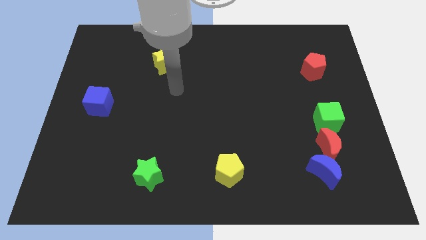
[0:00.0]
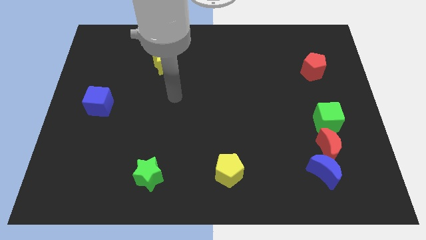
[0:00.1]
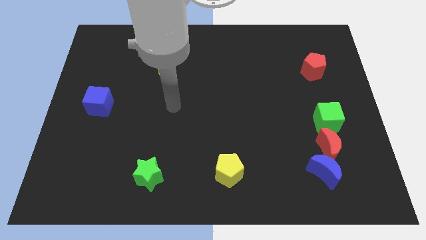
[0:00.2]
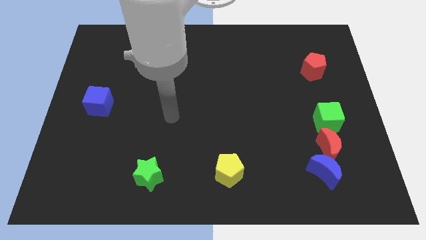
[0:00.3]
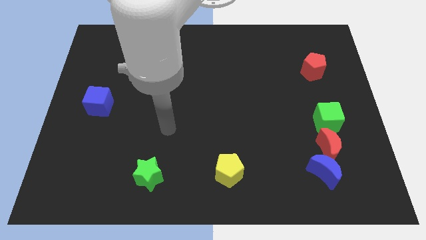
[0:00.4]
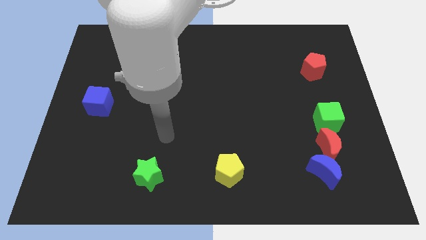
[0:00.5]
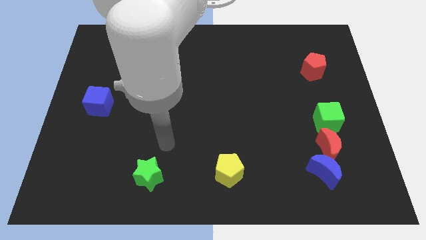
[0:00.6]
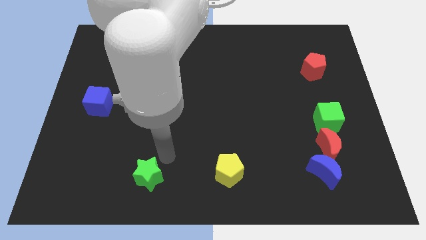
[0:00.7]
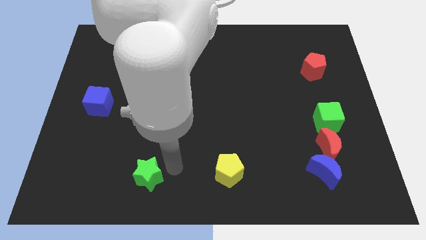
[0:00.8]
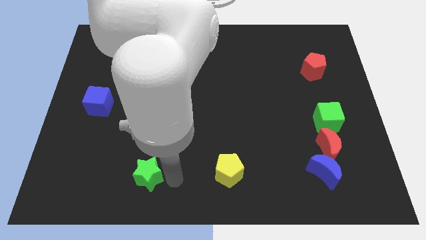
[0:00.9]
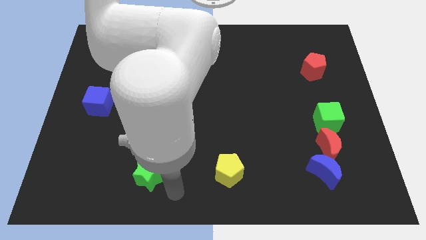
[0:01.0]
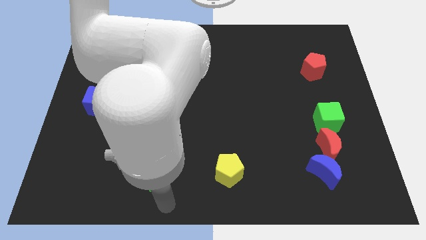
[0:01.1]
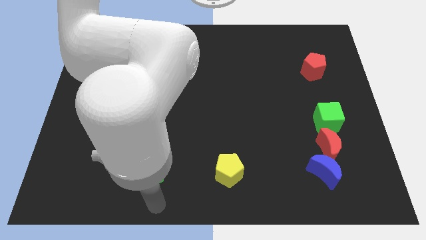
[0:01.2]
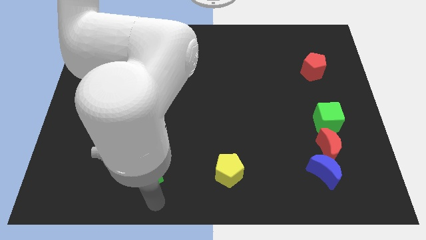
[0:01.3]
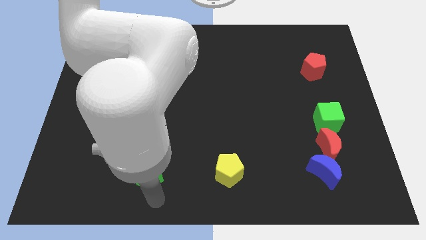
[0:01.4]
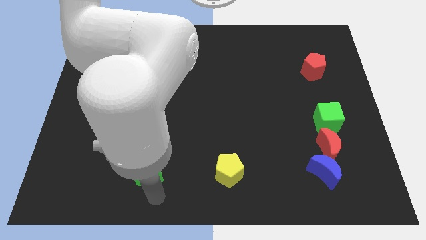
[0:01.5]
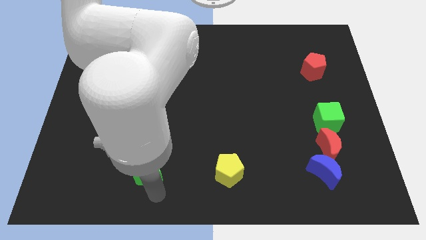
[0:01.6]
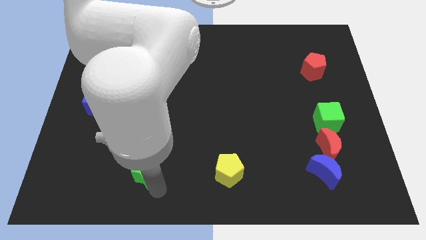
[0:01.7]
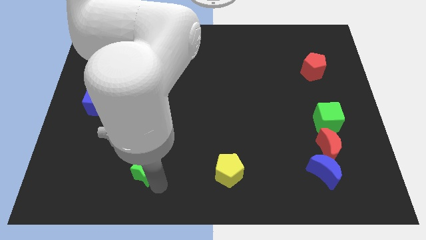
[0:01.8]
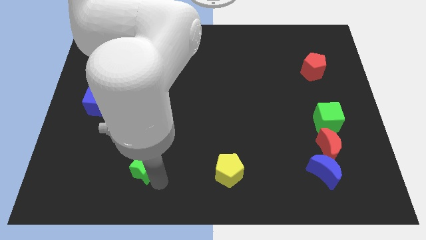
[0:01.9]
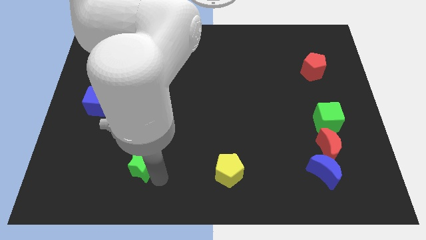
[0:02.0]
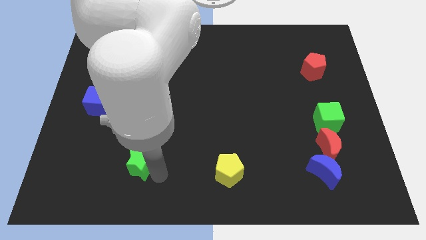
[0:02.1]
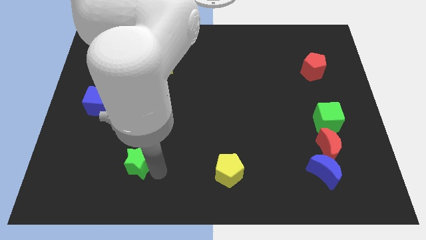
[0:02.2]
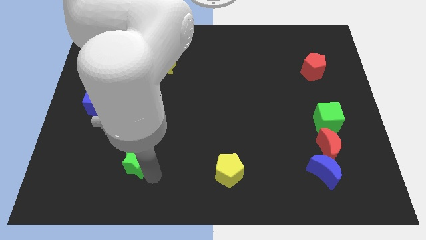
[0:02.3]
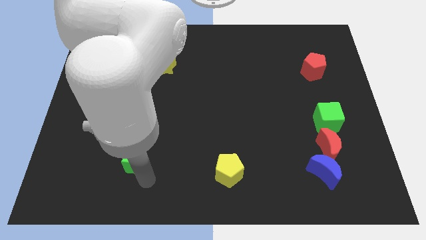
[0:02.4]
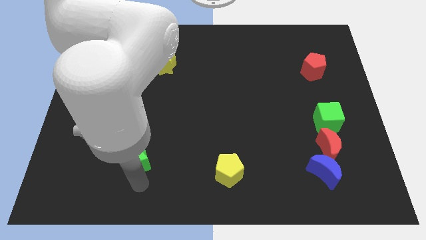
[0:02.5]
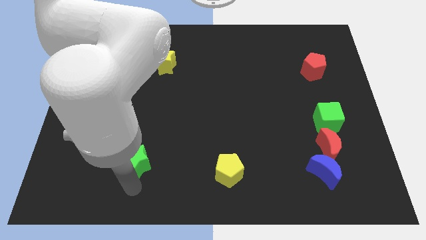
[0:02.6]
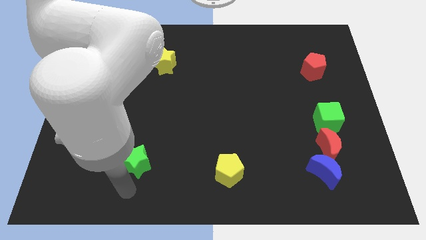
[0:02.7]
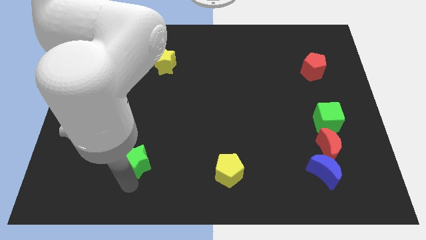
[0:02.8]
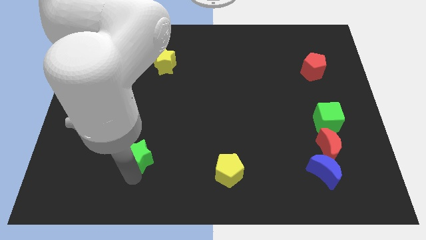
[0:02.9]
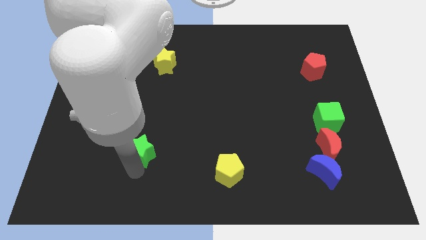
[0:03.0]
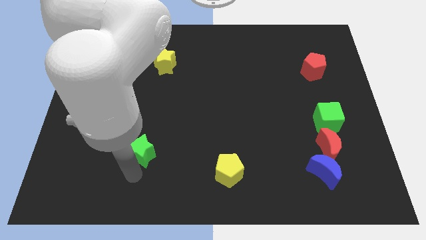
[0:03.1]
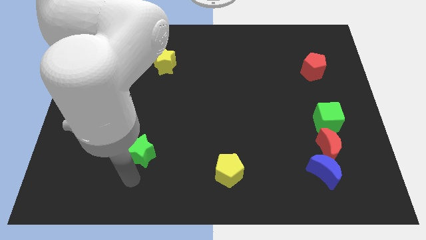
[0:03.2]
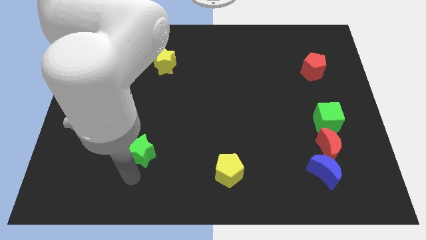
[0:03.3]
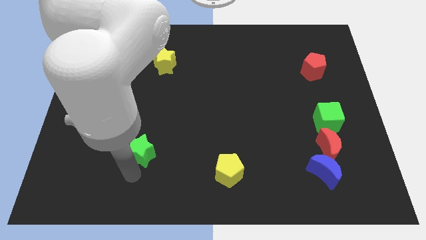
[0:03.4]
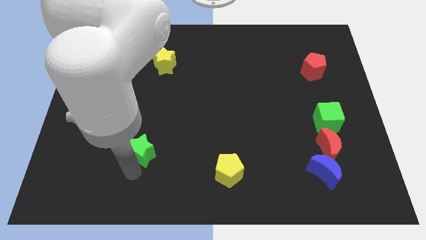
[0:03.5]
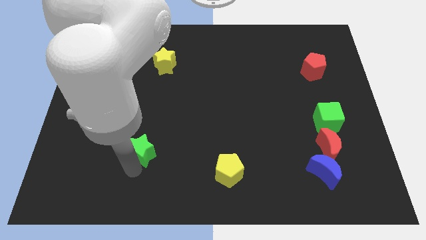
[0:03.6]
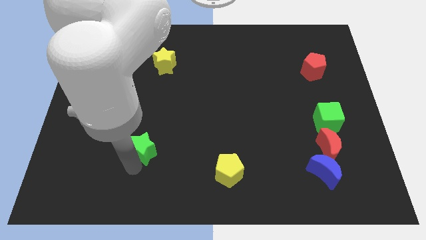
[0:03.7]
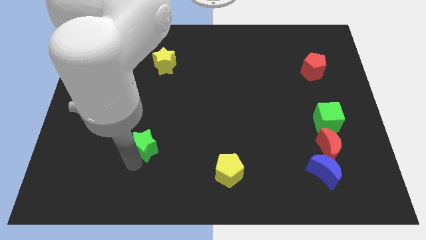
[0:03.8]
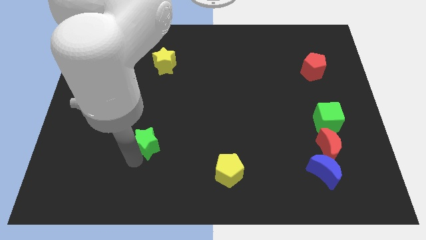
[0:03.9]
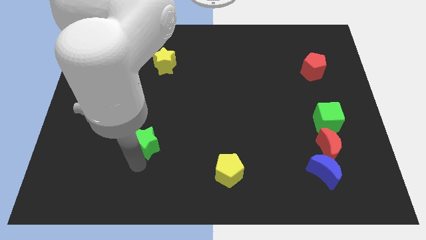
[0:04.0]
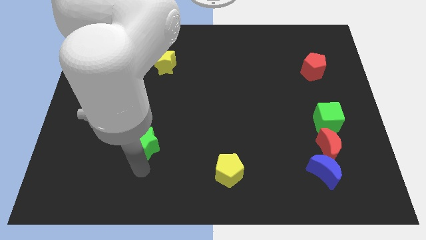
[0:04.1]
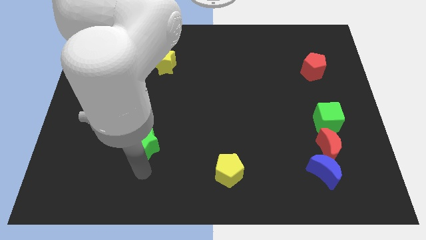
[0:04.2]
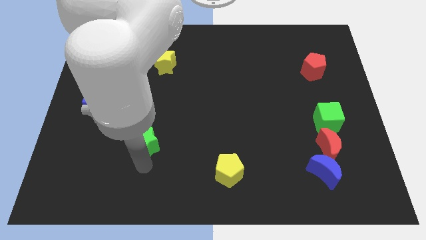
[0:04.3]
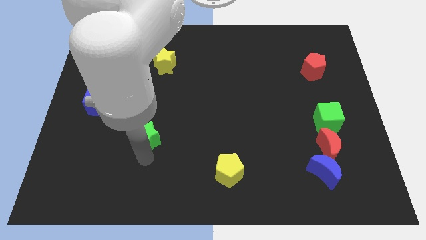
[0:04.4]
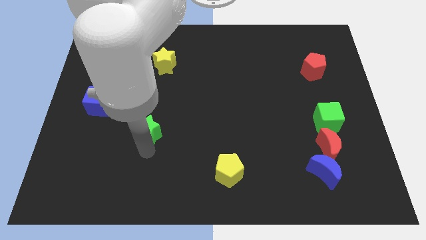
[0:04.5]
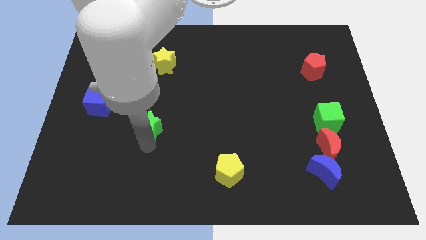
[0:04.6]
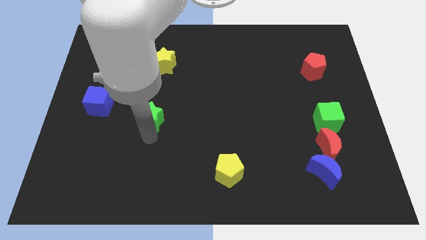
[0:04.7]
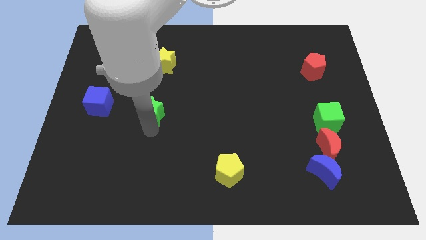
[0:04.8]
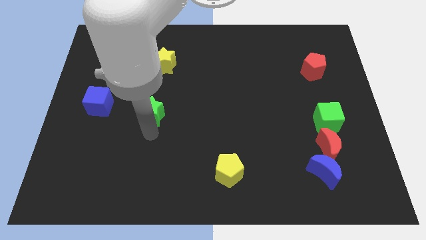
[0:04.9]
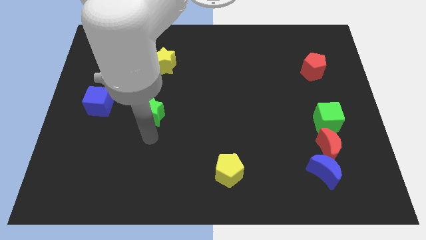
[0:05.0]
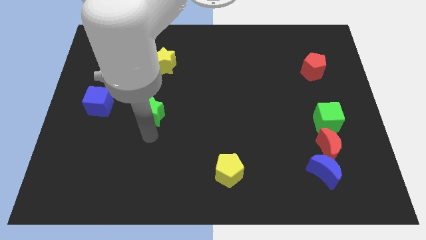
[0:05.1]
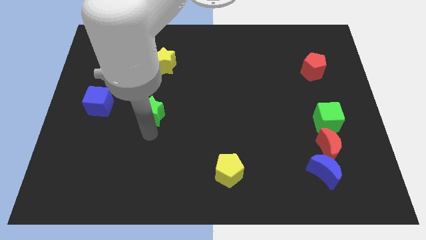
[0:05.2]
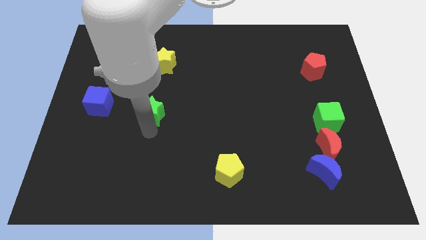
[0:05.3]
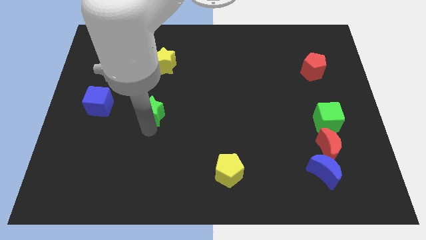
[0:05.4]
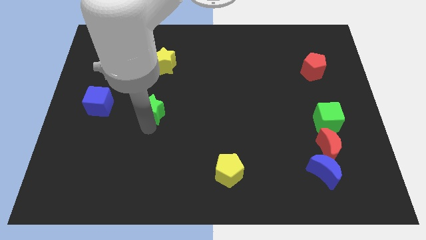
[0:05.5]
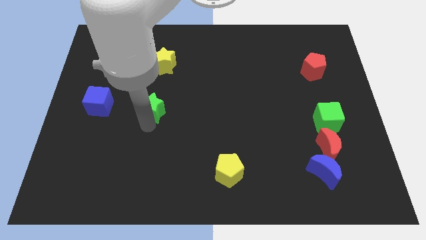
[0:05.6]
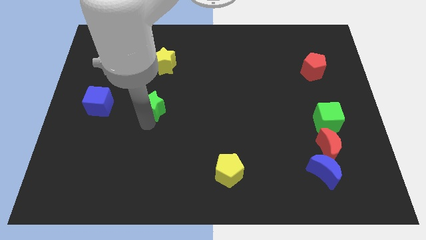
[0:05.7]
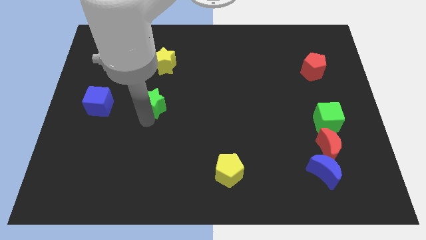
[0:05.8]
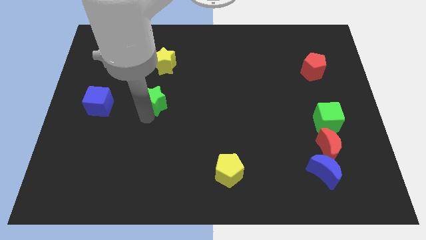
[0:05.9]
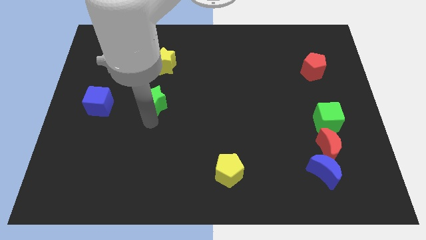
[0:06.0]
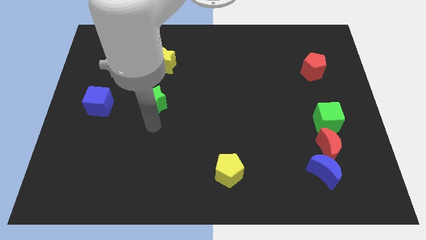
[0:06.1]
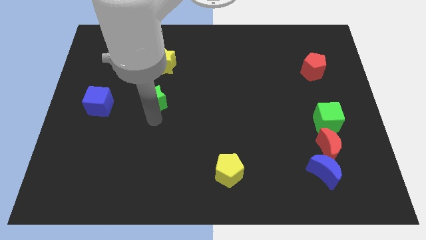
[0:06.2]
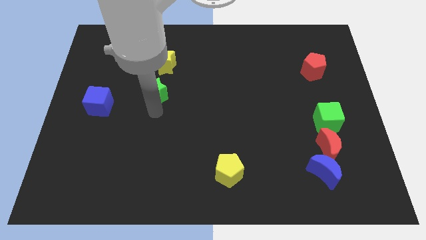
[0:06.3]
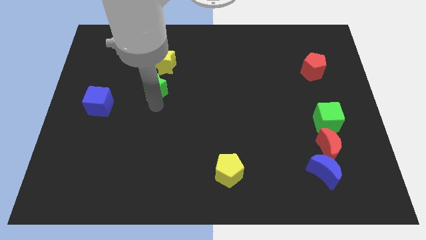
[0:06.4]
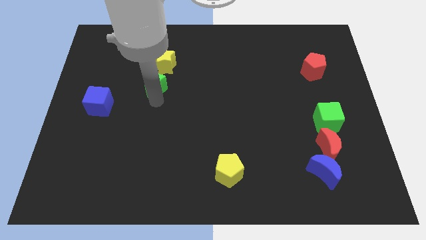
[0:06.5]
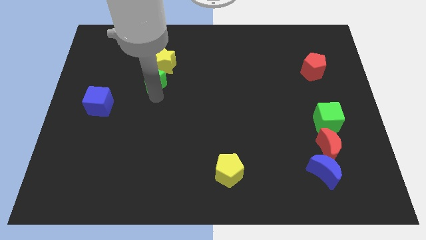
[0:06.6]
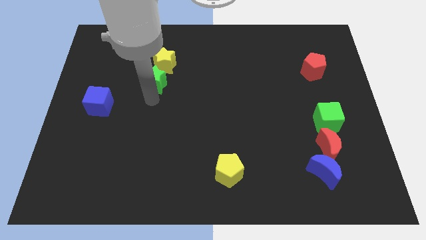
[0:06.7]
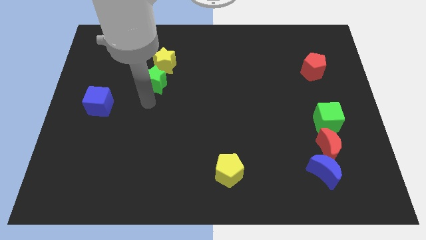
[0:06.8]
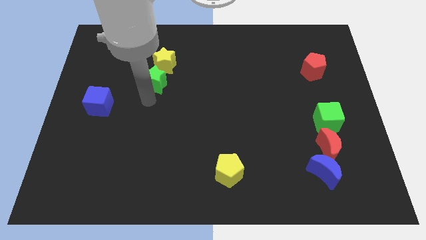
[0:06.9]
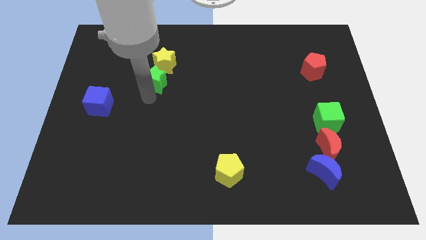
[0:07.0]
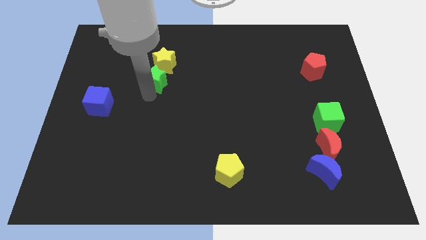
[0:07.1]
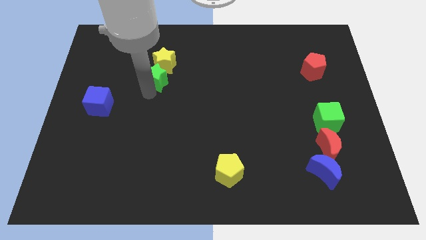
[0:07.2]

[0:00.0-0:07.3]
slide the green star towards the yellow star
